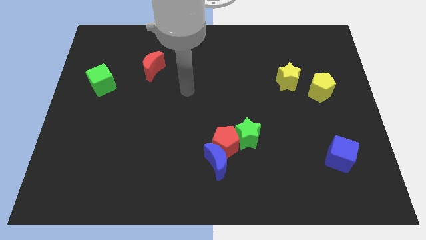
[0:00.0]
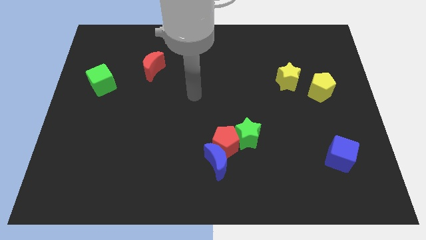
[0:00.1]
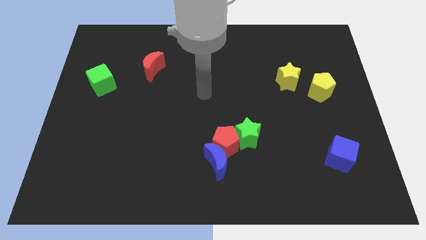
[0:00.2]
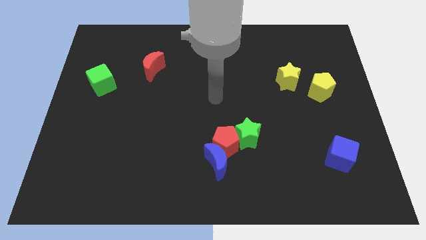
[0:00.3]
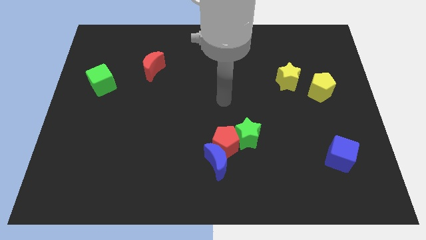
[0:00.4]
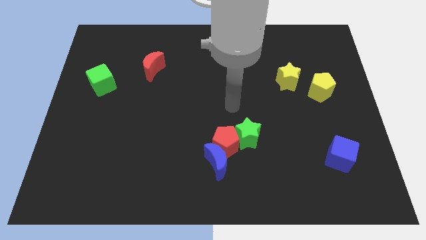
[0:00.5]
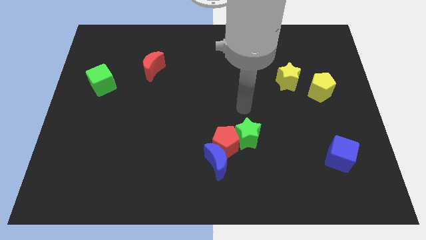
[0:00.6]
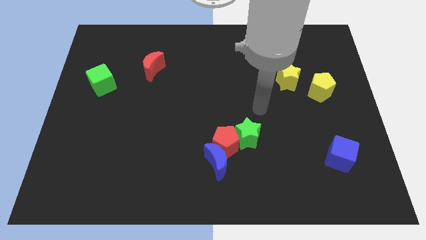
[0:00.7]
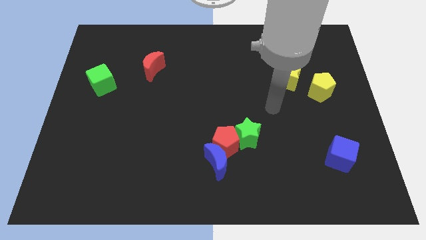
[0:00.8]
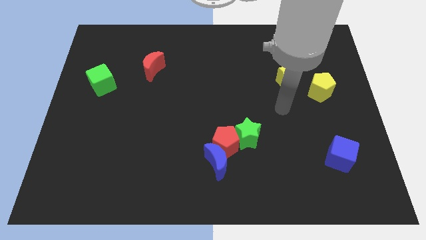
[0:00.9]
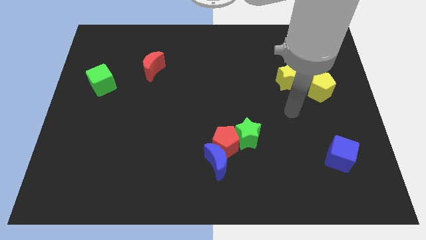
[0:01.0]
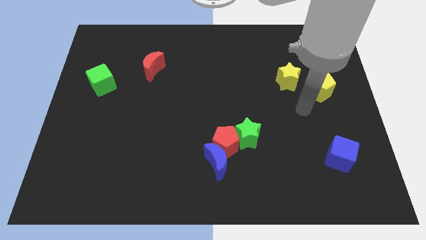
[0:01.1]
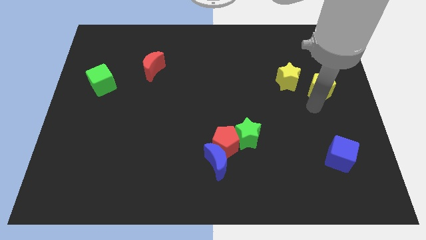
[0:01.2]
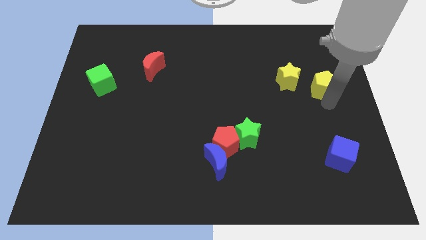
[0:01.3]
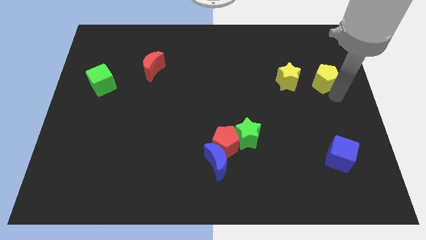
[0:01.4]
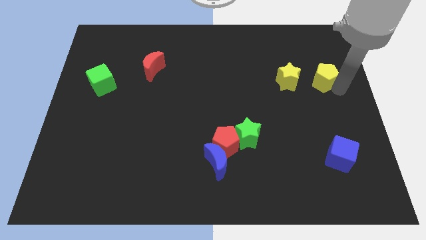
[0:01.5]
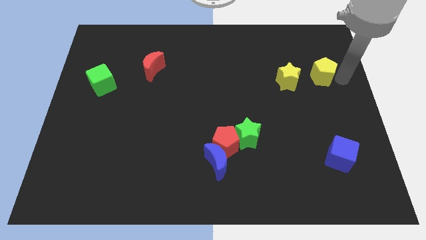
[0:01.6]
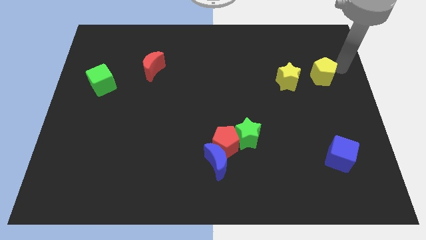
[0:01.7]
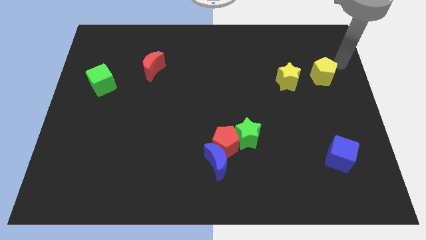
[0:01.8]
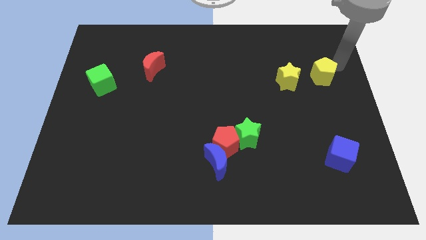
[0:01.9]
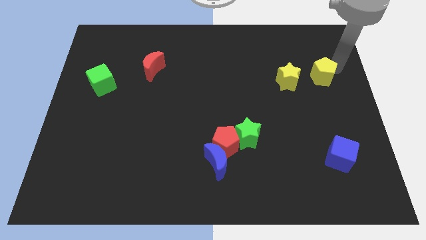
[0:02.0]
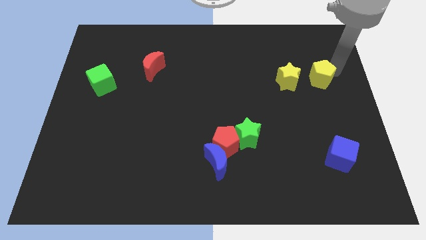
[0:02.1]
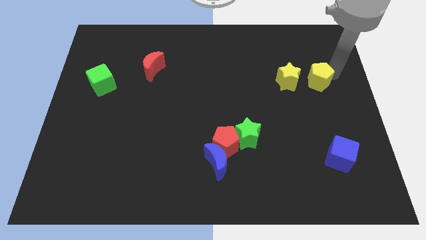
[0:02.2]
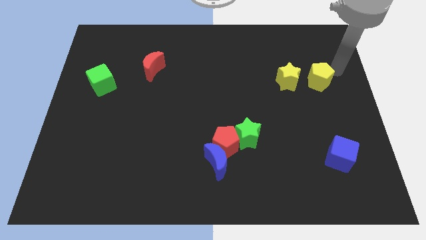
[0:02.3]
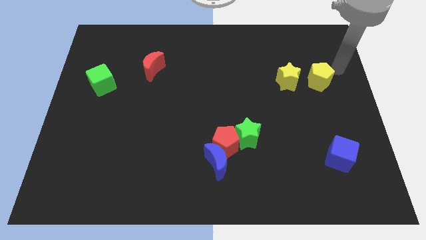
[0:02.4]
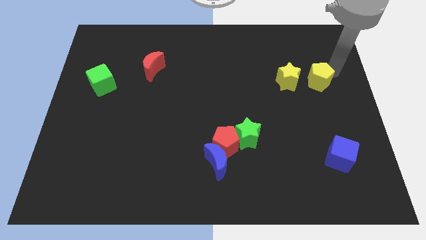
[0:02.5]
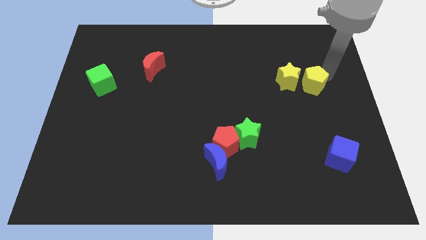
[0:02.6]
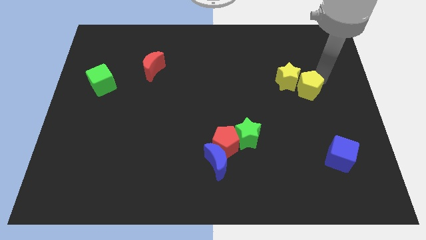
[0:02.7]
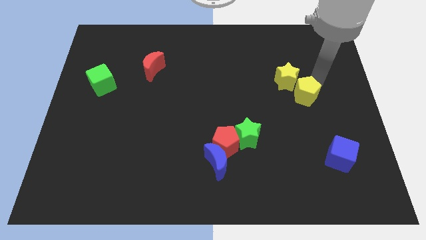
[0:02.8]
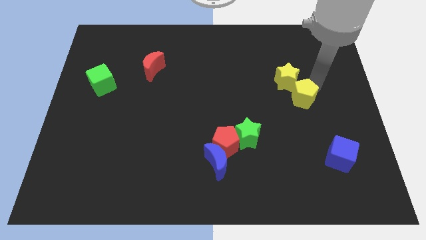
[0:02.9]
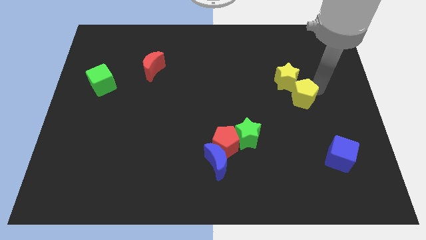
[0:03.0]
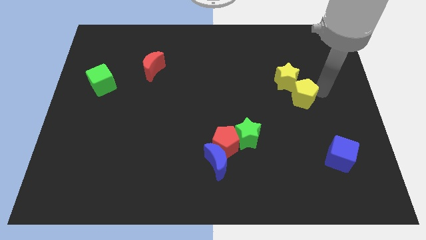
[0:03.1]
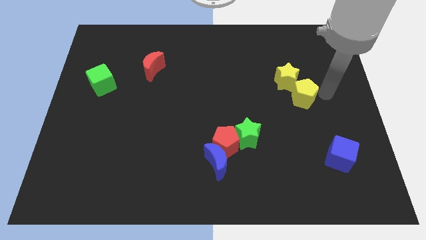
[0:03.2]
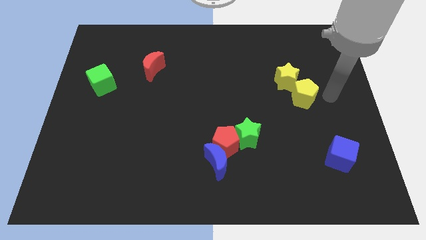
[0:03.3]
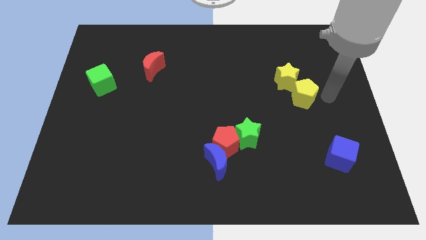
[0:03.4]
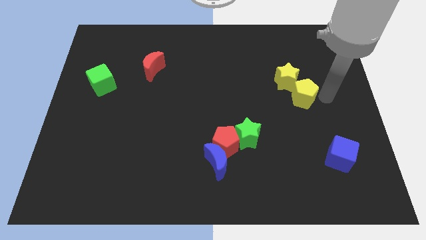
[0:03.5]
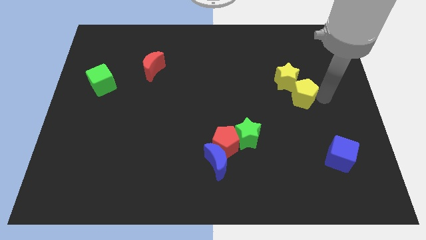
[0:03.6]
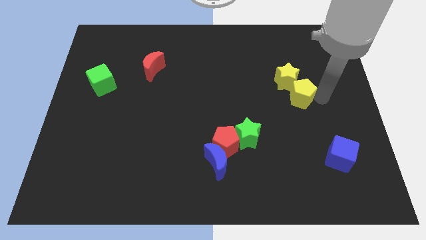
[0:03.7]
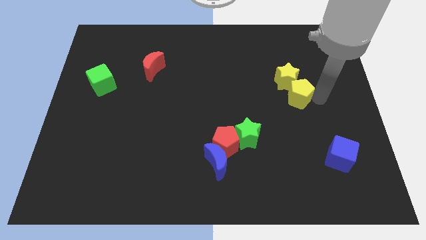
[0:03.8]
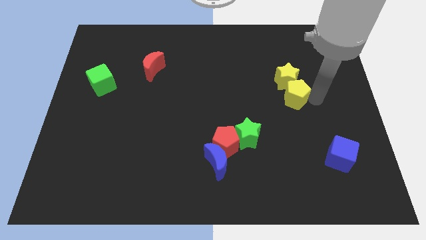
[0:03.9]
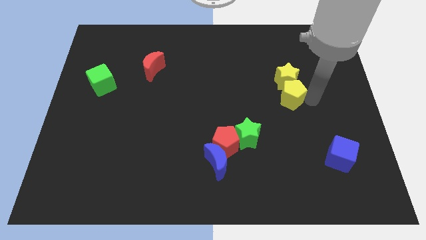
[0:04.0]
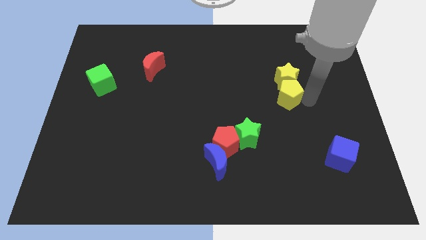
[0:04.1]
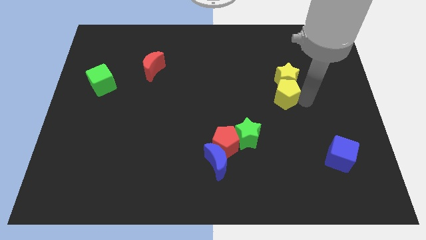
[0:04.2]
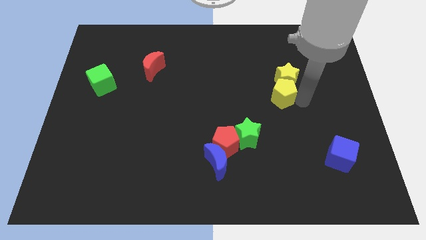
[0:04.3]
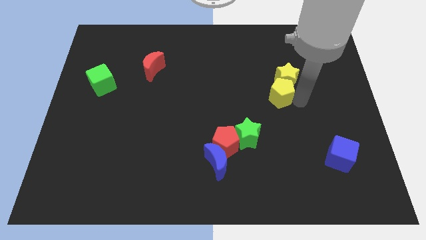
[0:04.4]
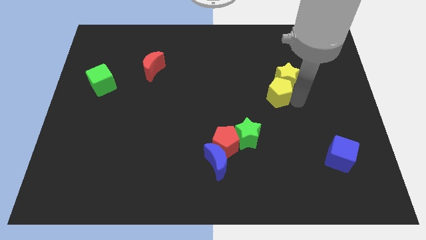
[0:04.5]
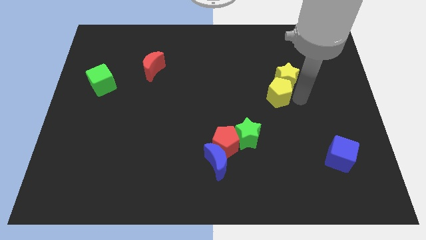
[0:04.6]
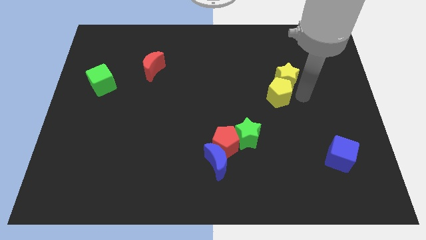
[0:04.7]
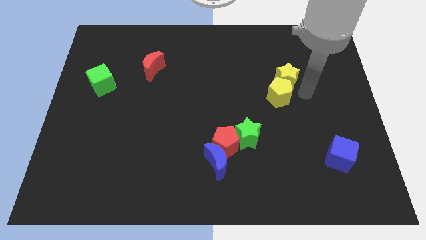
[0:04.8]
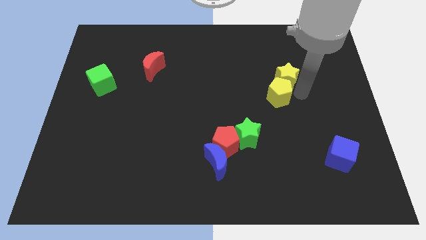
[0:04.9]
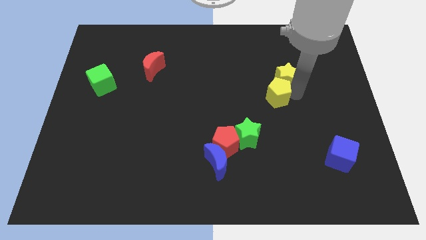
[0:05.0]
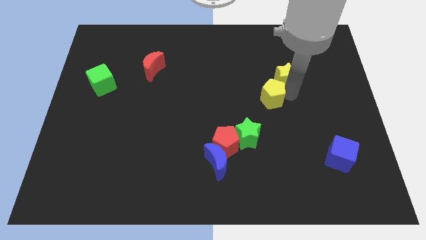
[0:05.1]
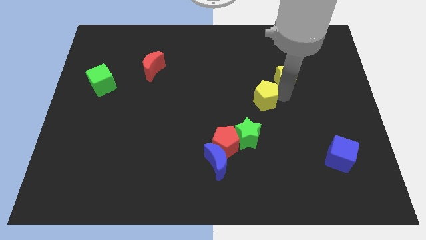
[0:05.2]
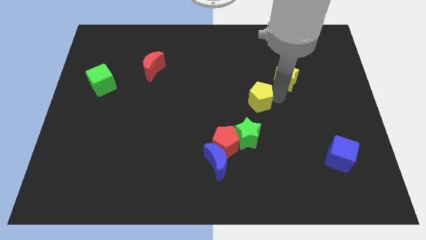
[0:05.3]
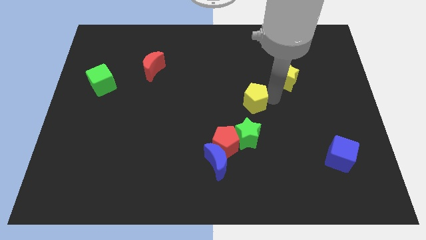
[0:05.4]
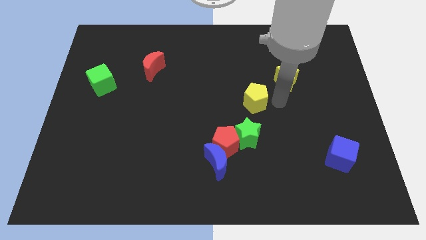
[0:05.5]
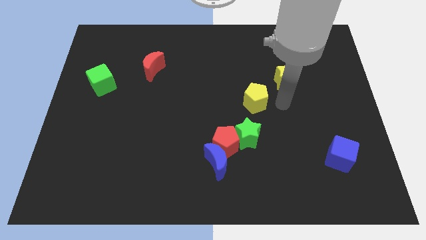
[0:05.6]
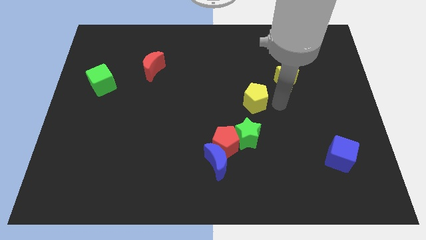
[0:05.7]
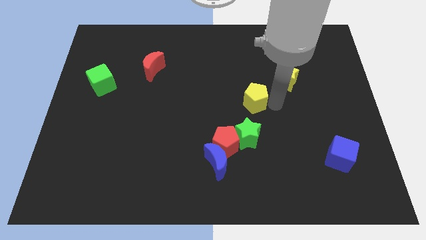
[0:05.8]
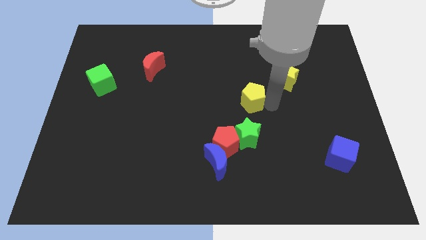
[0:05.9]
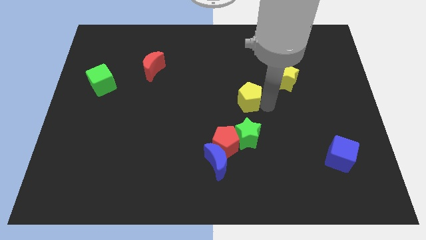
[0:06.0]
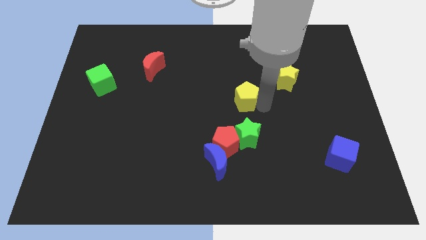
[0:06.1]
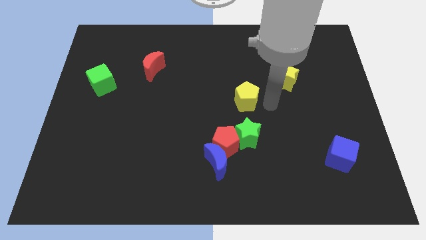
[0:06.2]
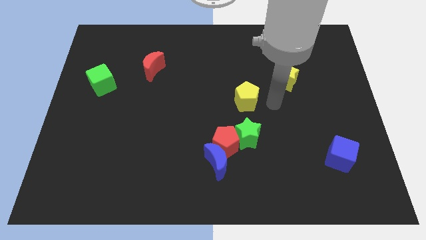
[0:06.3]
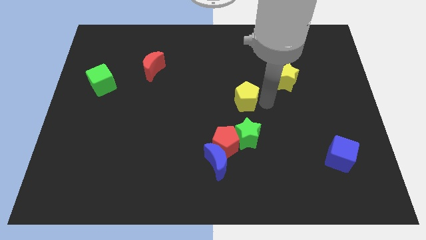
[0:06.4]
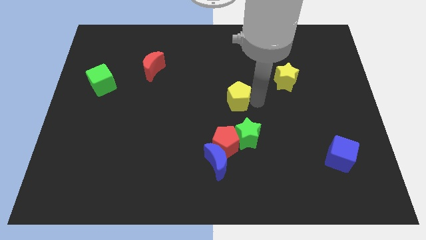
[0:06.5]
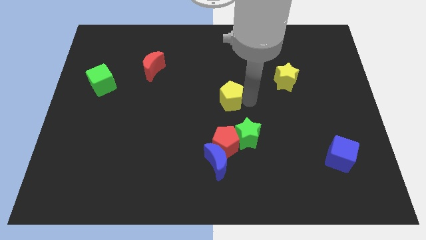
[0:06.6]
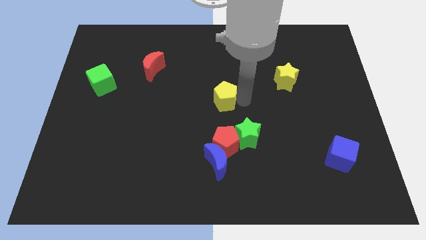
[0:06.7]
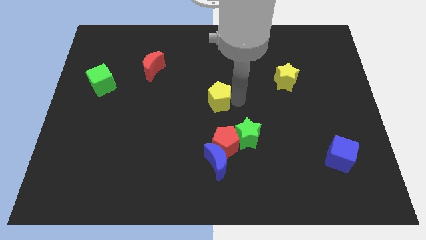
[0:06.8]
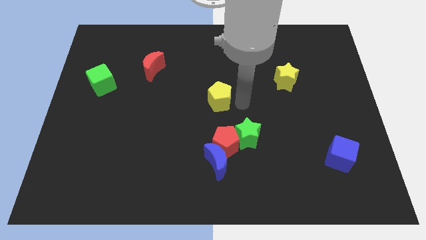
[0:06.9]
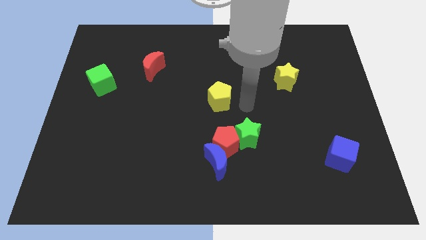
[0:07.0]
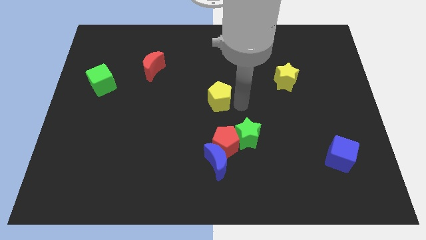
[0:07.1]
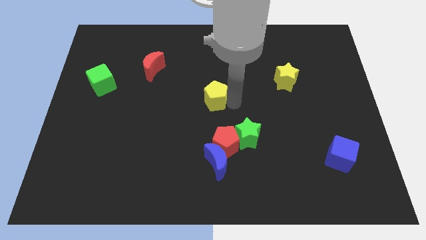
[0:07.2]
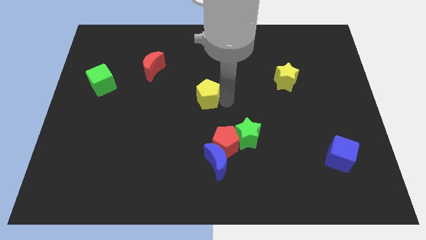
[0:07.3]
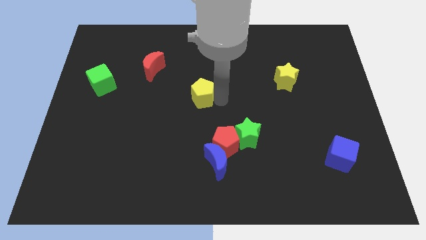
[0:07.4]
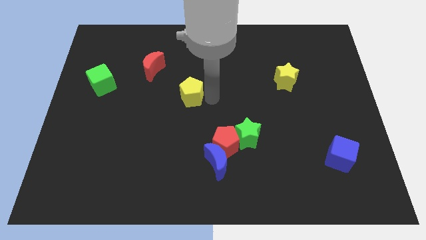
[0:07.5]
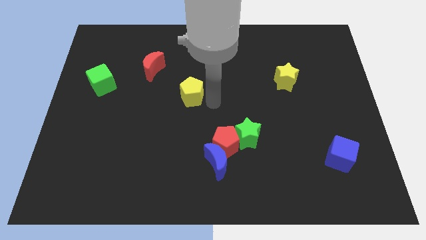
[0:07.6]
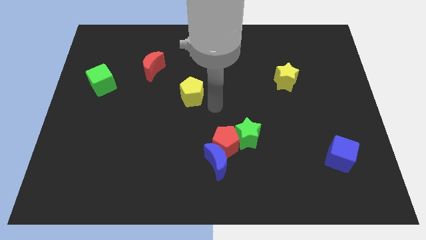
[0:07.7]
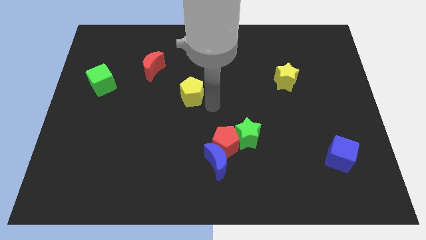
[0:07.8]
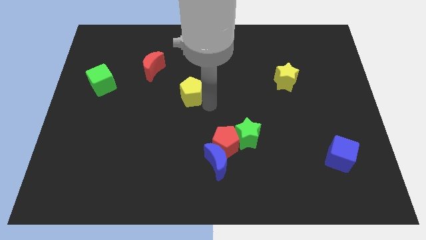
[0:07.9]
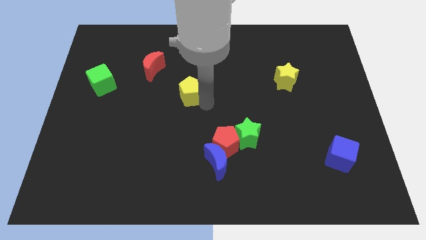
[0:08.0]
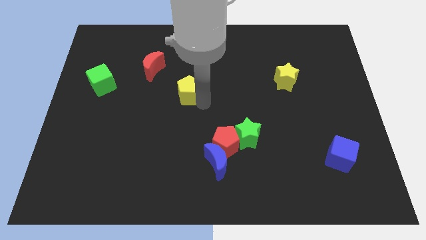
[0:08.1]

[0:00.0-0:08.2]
push the yellow pentagon to the bottom right side of the red moon
